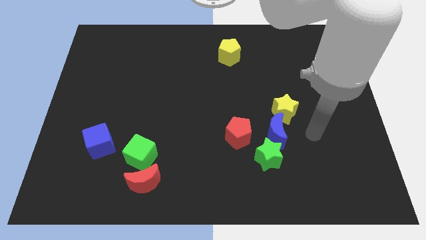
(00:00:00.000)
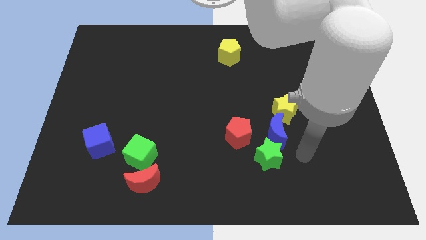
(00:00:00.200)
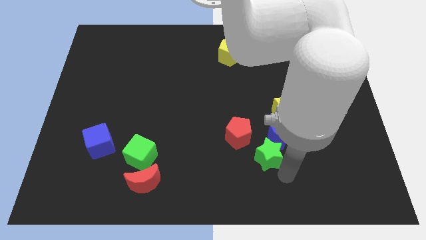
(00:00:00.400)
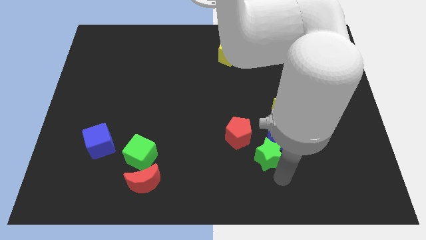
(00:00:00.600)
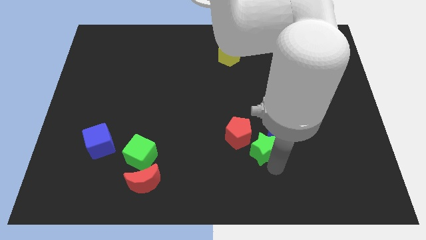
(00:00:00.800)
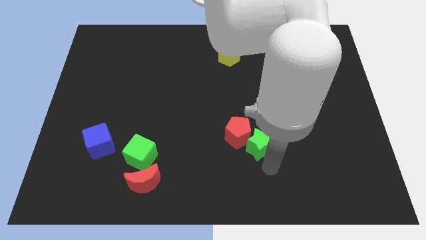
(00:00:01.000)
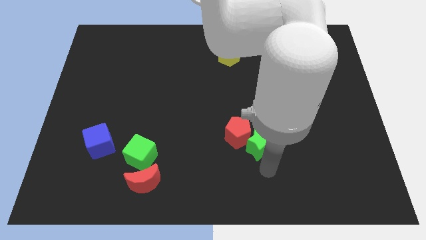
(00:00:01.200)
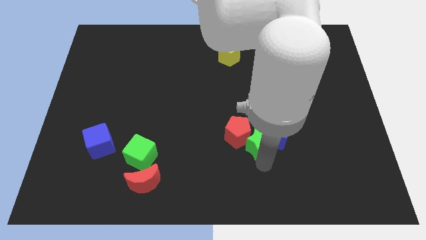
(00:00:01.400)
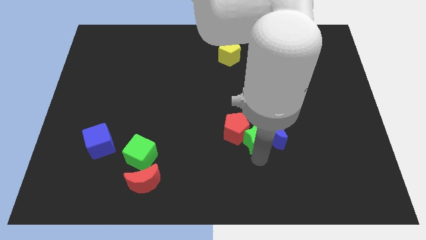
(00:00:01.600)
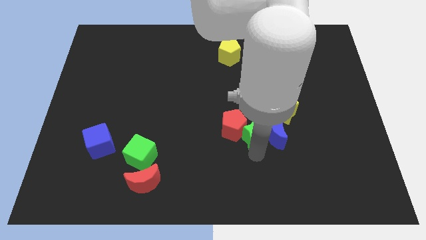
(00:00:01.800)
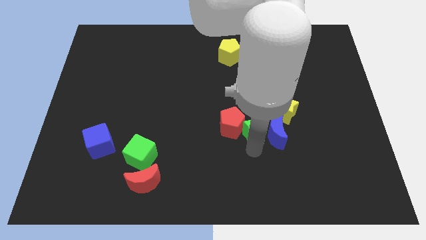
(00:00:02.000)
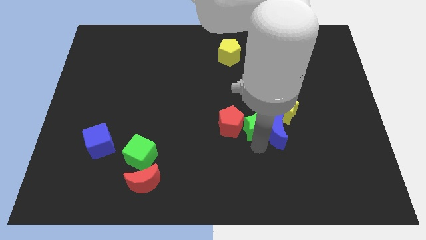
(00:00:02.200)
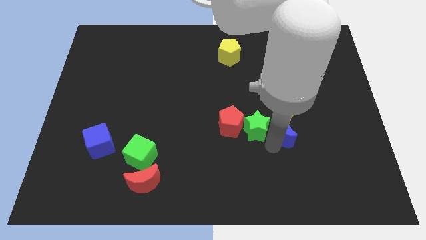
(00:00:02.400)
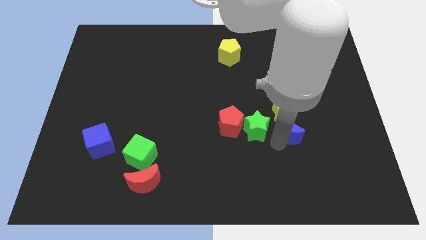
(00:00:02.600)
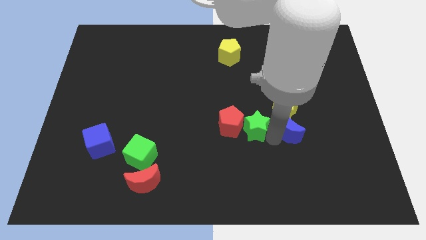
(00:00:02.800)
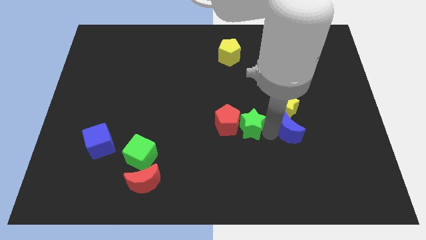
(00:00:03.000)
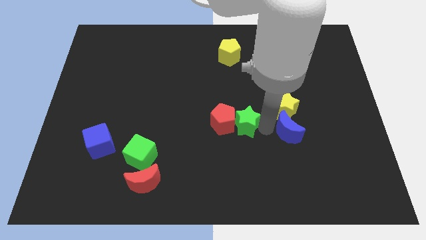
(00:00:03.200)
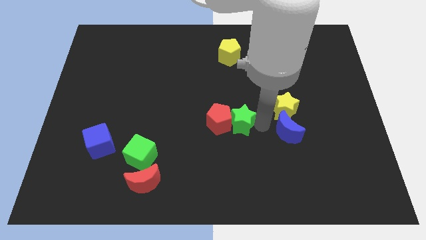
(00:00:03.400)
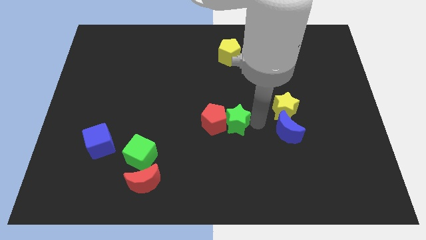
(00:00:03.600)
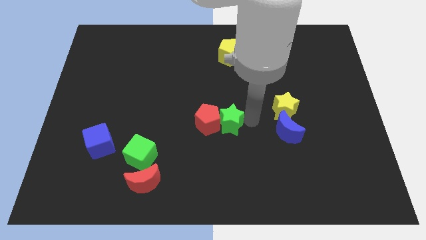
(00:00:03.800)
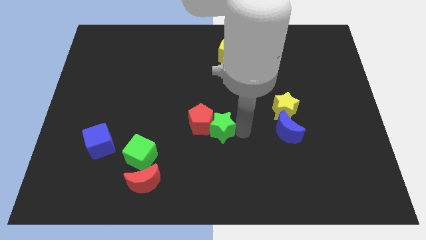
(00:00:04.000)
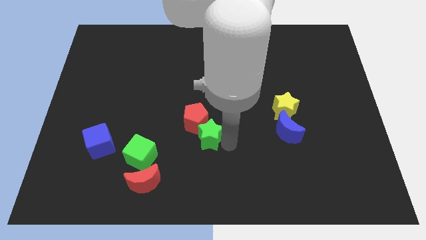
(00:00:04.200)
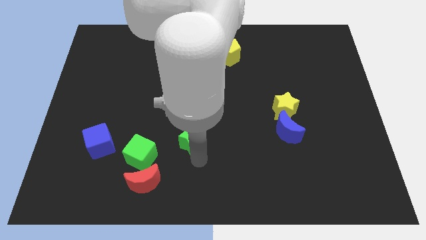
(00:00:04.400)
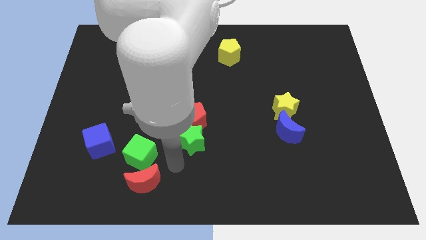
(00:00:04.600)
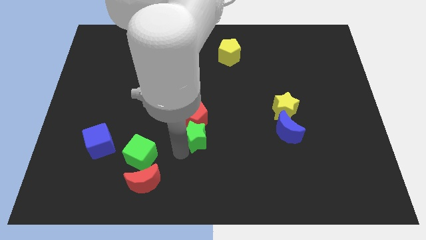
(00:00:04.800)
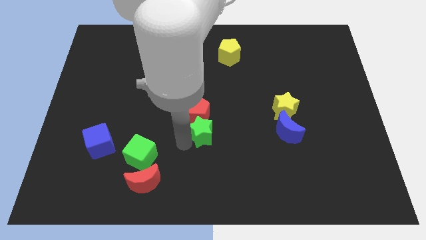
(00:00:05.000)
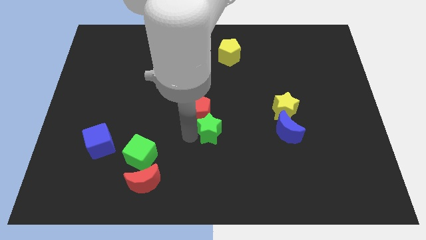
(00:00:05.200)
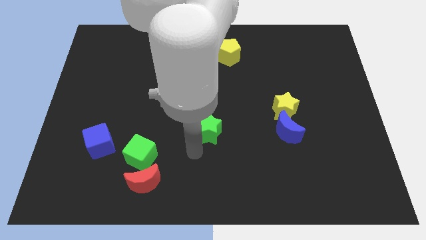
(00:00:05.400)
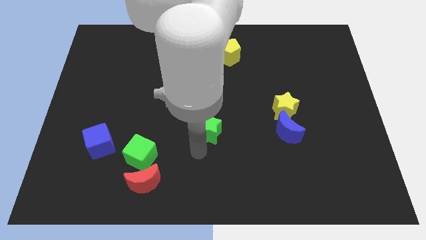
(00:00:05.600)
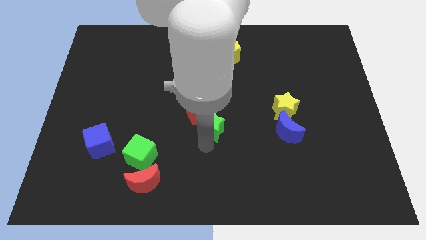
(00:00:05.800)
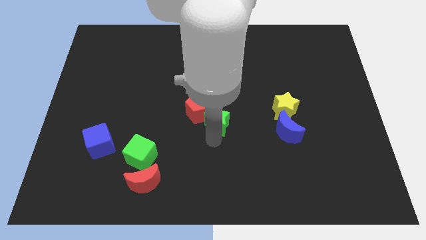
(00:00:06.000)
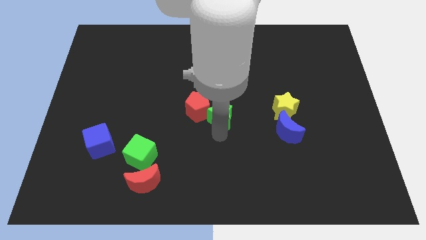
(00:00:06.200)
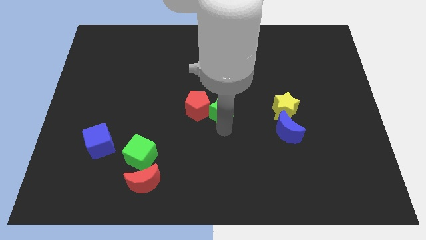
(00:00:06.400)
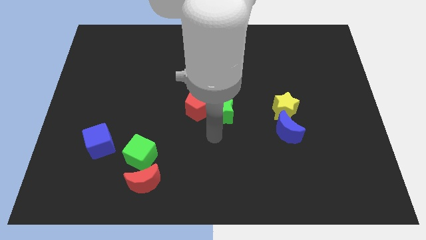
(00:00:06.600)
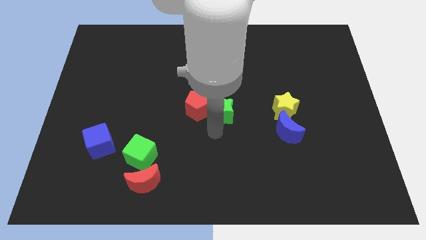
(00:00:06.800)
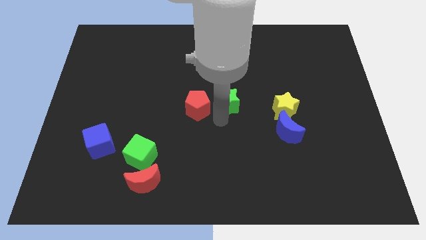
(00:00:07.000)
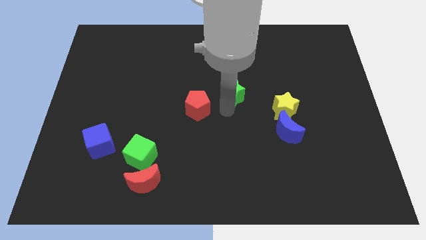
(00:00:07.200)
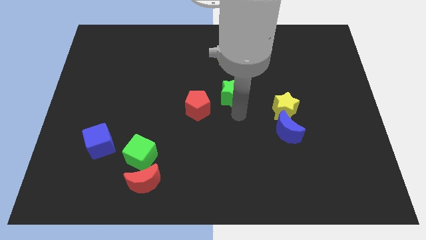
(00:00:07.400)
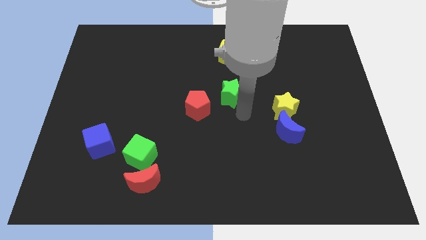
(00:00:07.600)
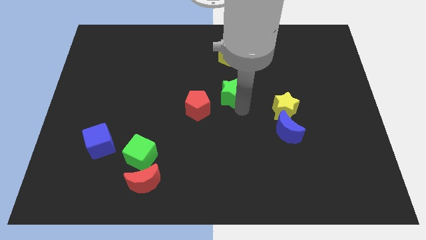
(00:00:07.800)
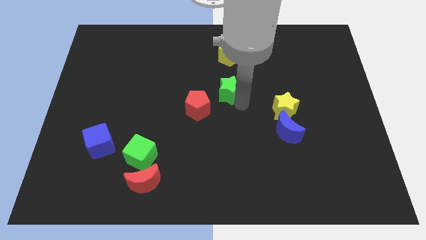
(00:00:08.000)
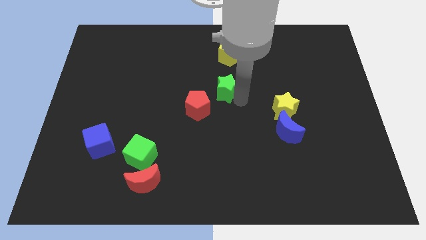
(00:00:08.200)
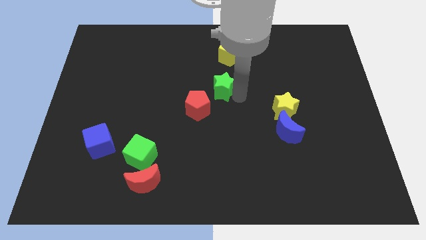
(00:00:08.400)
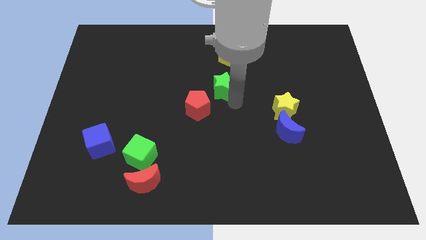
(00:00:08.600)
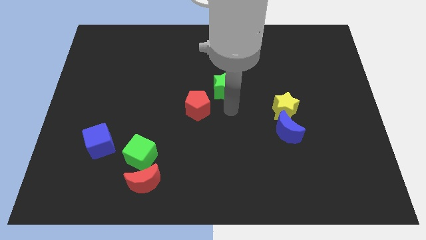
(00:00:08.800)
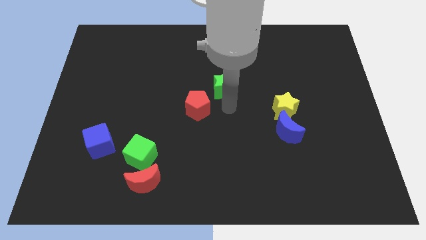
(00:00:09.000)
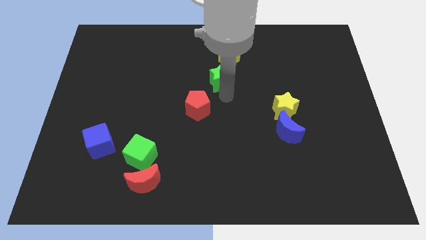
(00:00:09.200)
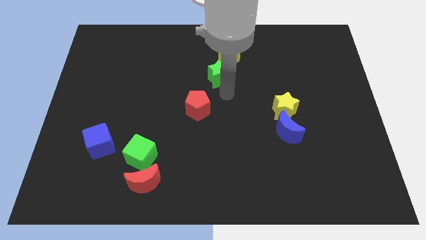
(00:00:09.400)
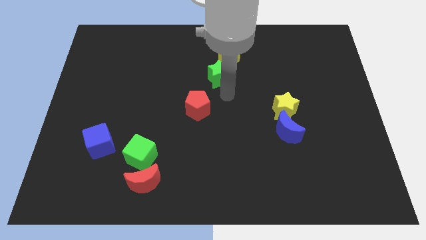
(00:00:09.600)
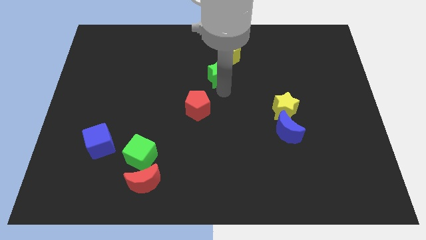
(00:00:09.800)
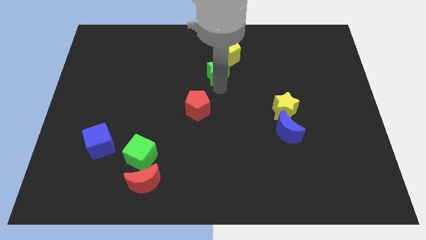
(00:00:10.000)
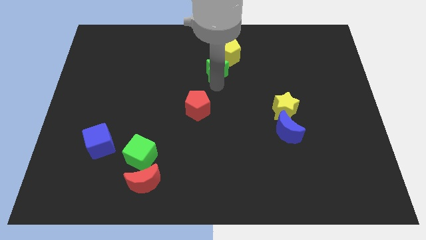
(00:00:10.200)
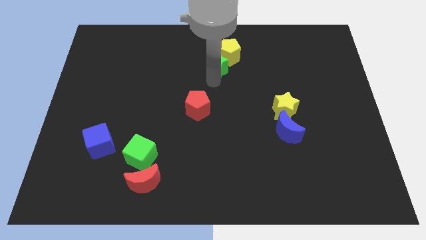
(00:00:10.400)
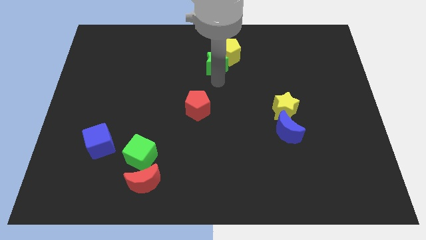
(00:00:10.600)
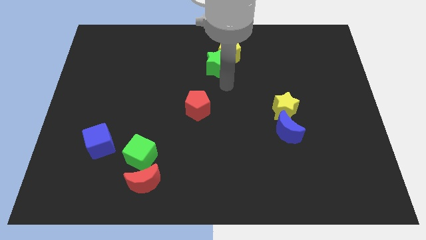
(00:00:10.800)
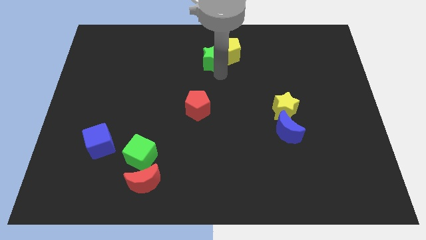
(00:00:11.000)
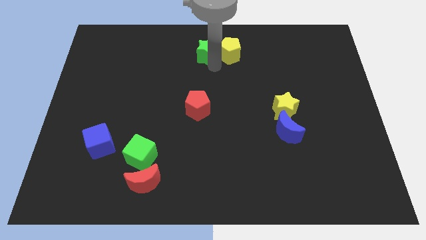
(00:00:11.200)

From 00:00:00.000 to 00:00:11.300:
put the green star to the top

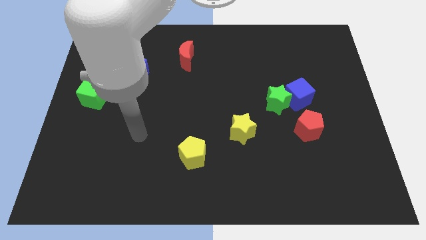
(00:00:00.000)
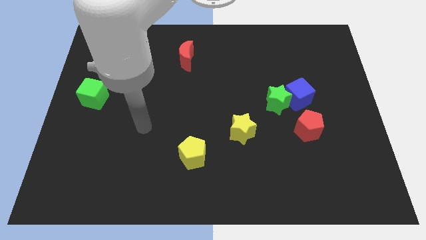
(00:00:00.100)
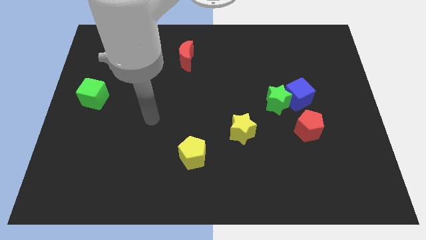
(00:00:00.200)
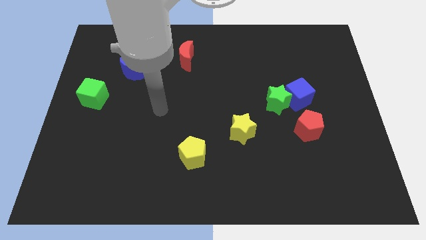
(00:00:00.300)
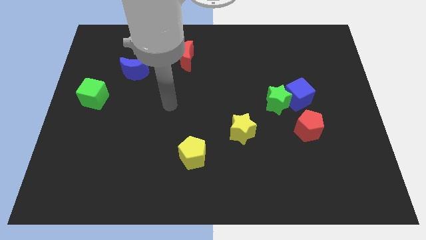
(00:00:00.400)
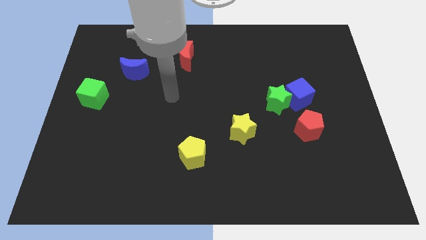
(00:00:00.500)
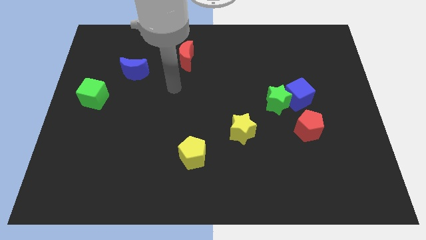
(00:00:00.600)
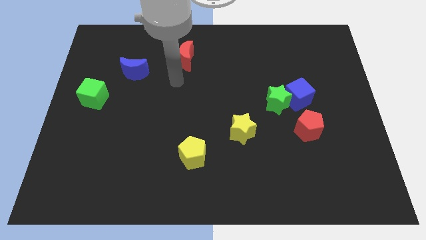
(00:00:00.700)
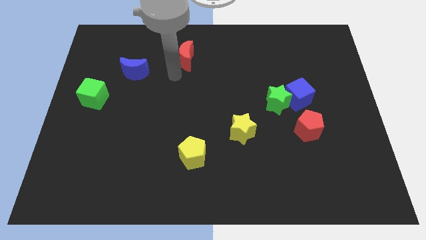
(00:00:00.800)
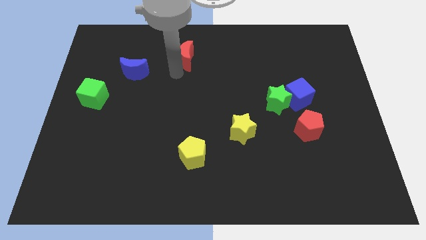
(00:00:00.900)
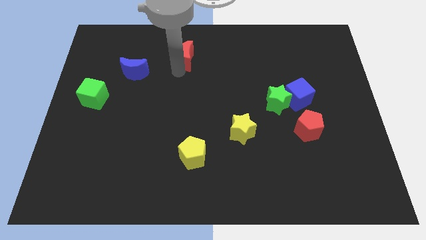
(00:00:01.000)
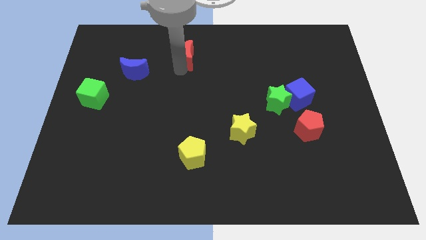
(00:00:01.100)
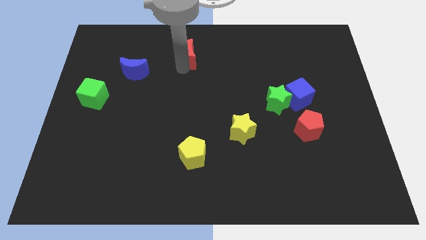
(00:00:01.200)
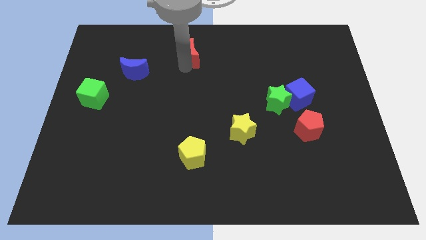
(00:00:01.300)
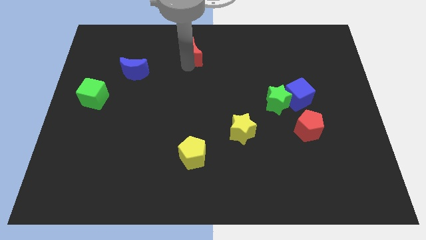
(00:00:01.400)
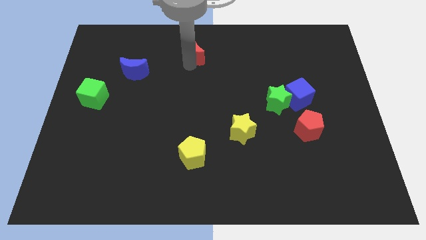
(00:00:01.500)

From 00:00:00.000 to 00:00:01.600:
put the red moon to the top side
